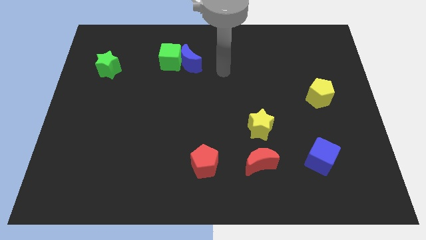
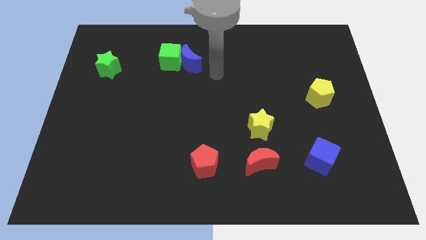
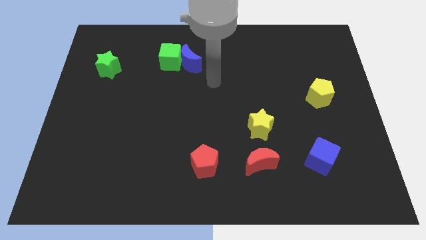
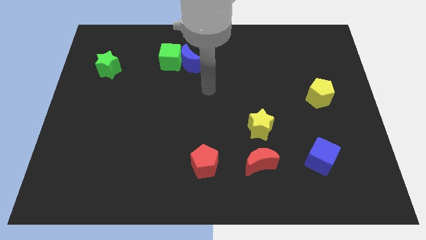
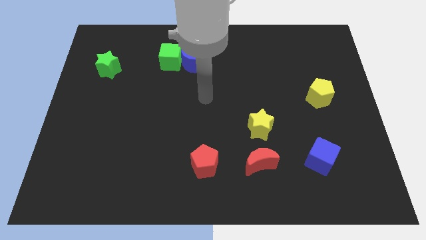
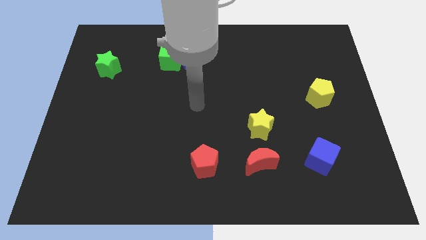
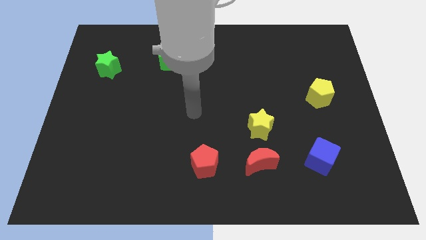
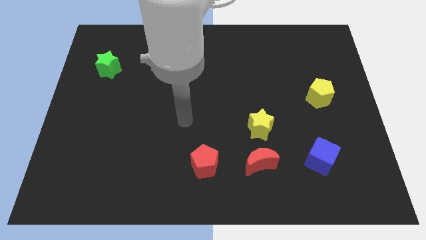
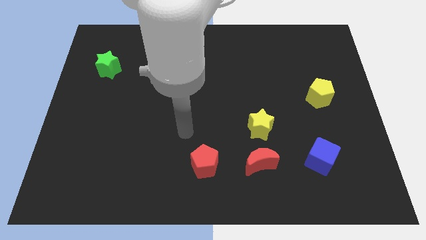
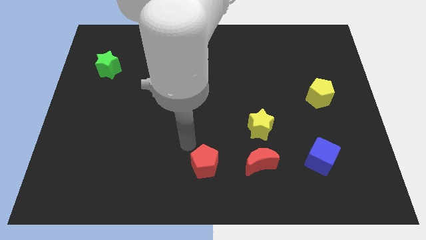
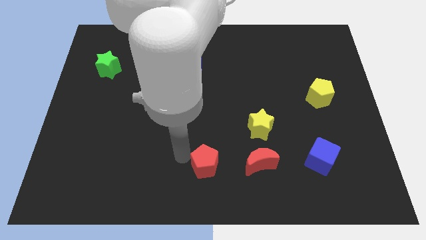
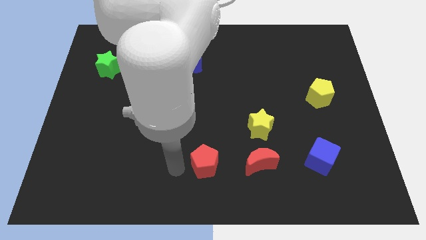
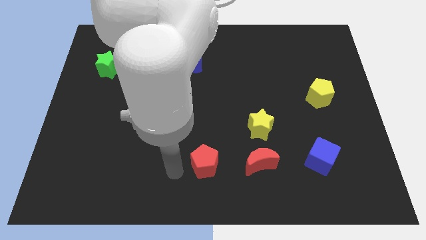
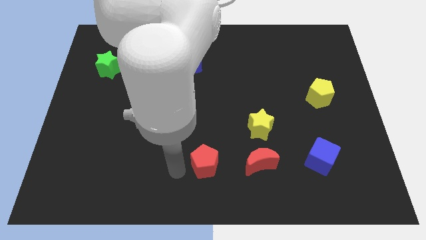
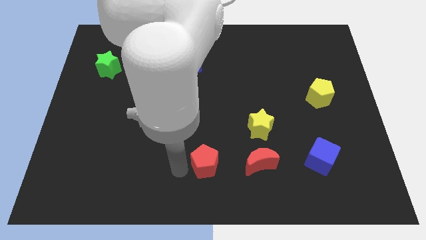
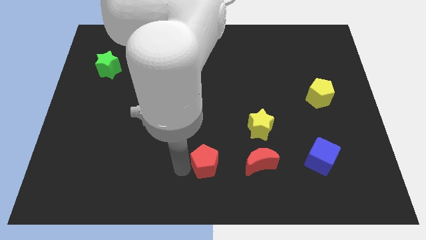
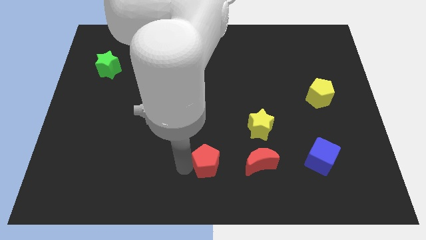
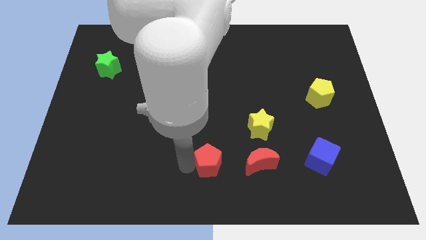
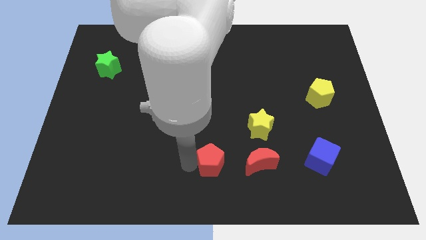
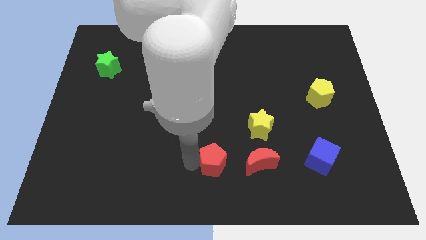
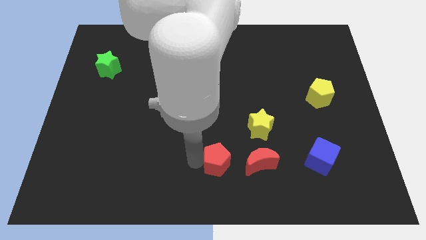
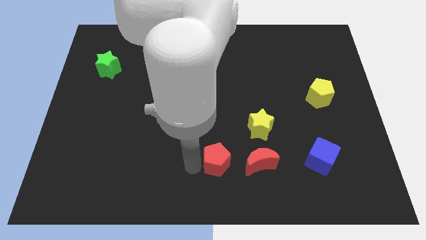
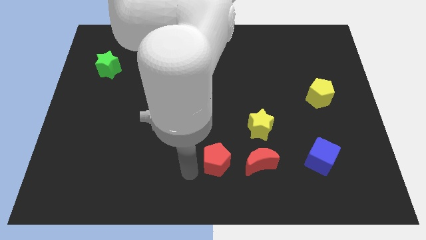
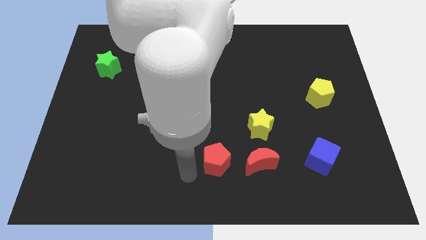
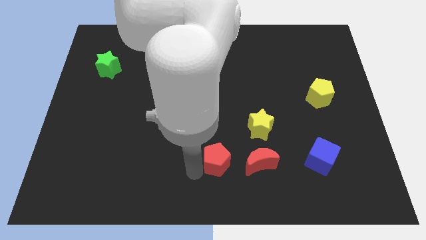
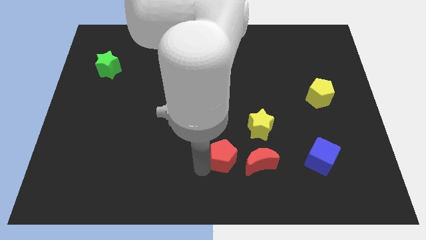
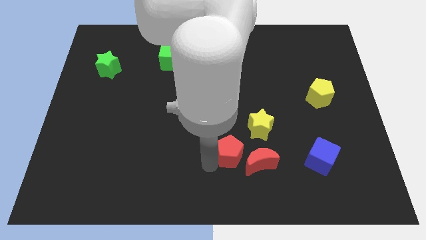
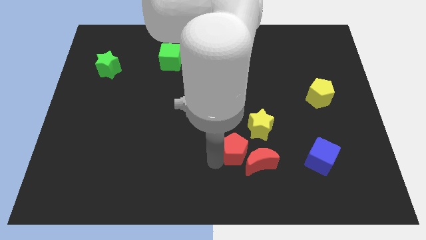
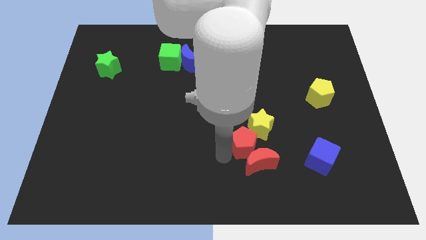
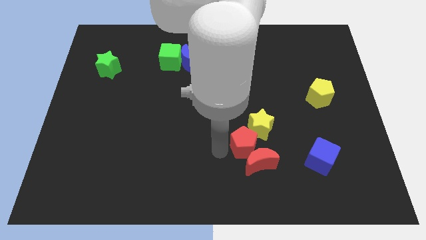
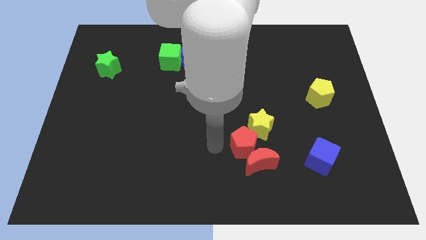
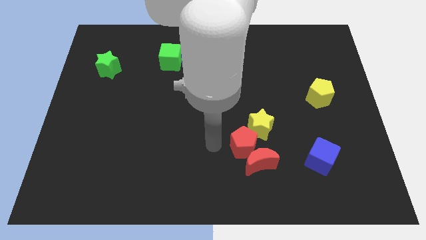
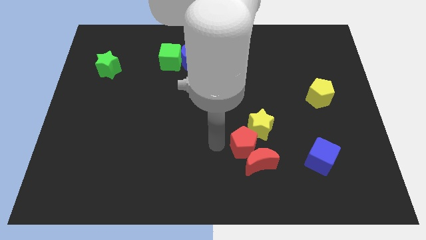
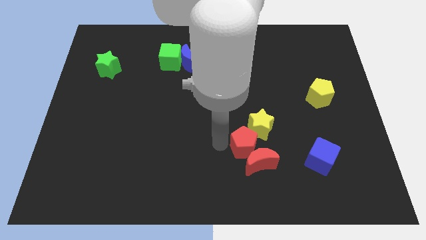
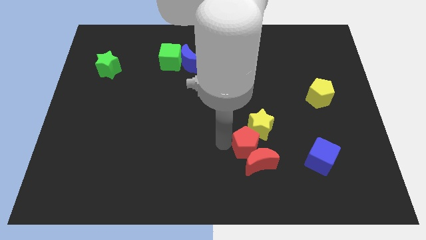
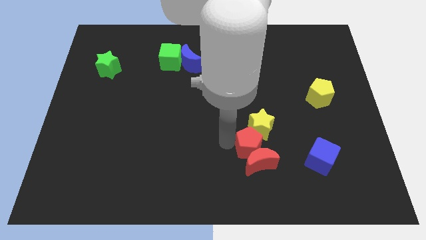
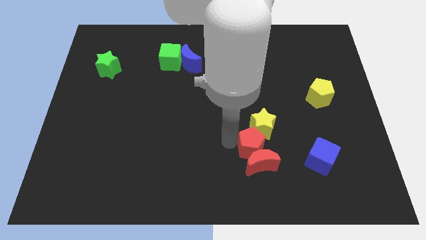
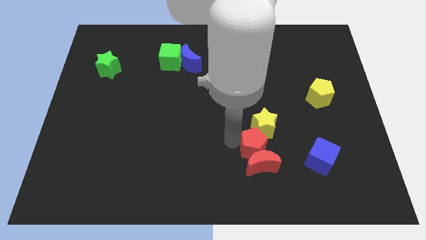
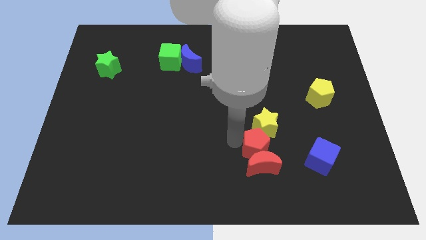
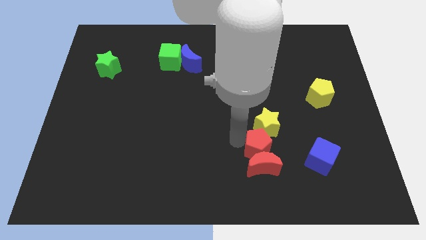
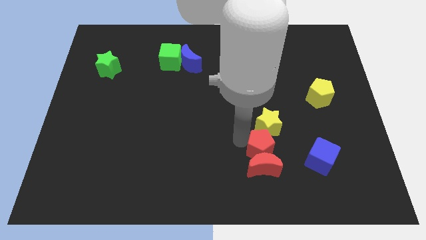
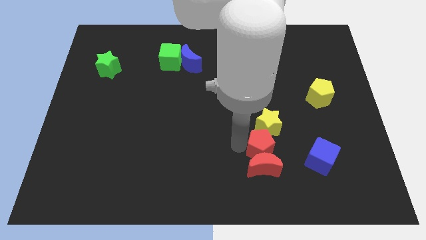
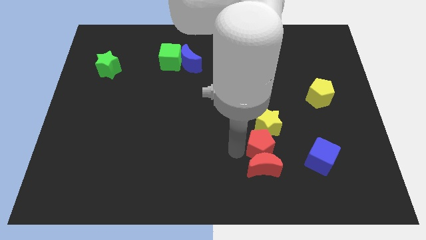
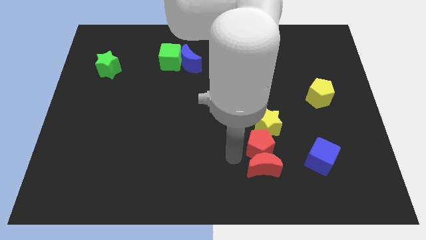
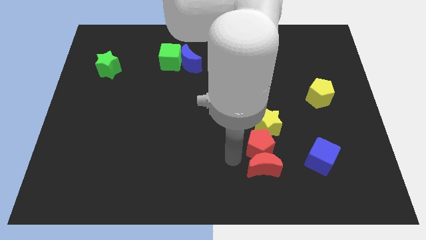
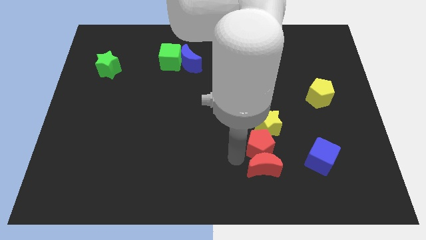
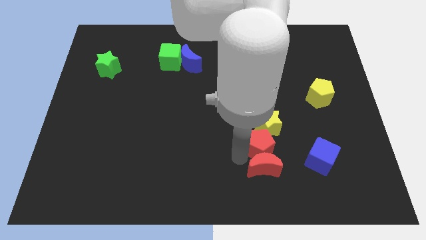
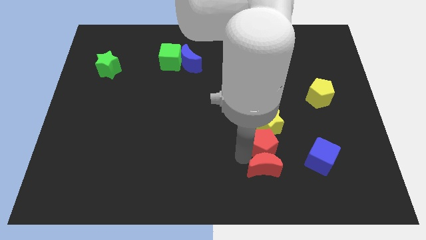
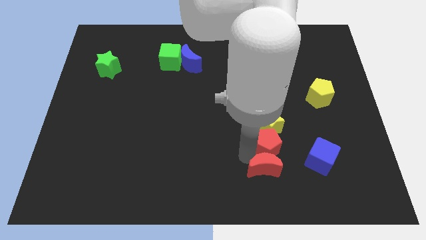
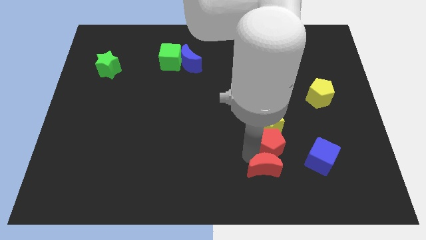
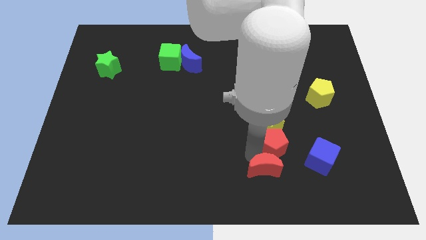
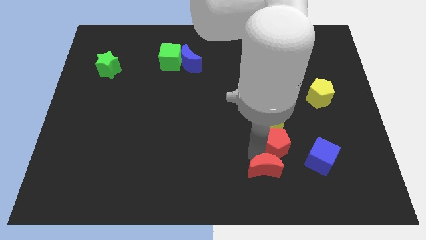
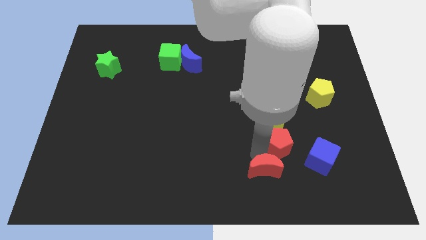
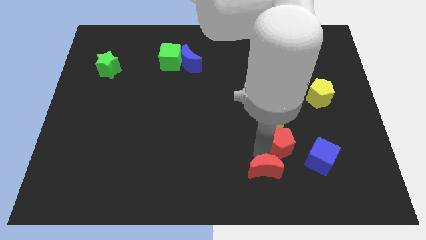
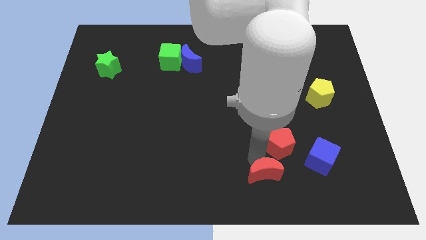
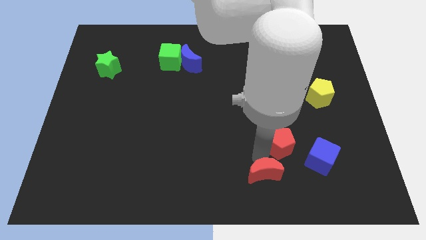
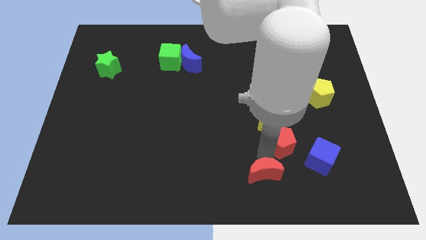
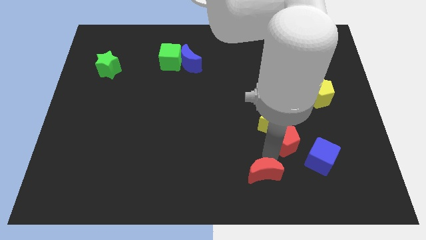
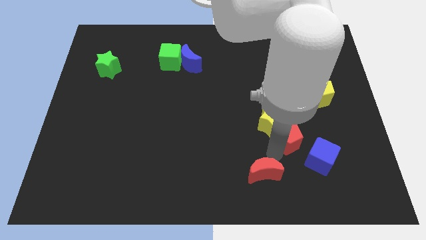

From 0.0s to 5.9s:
put the red pentagon just right of the yellow star

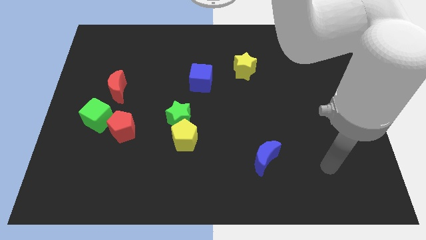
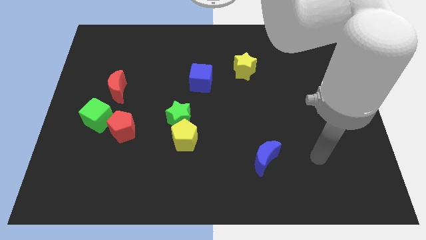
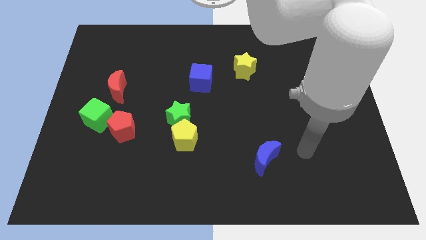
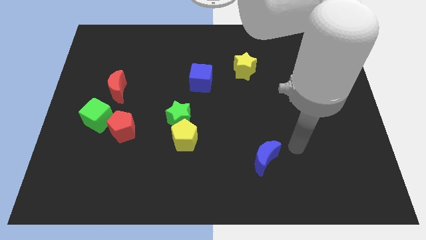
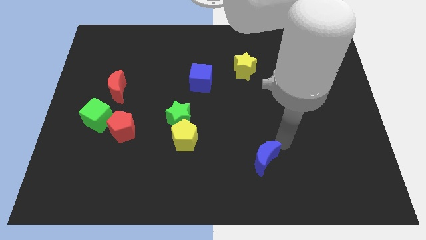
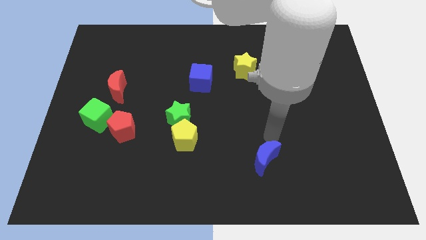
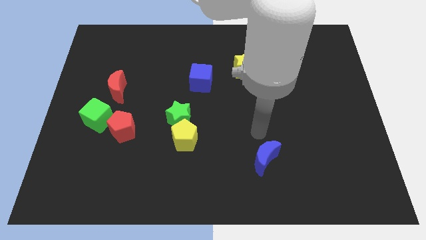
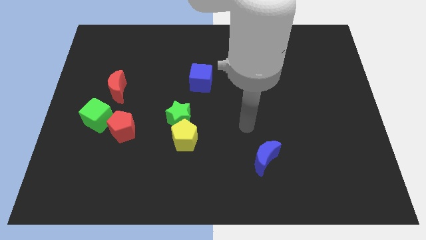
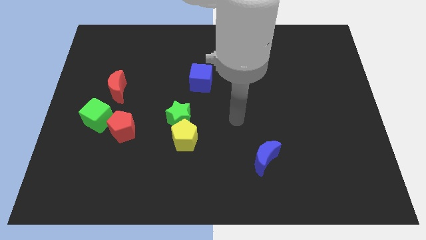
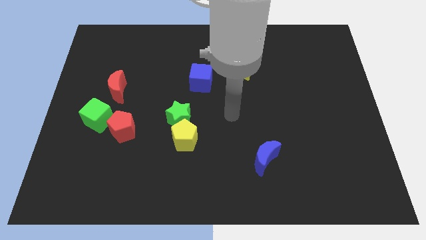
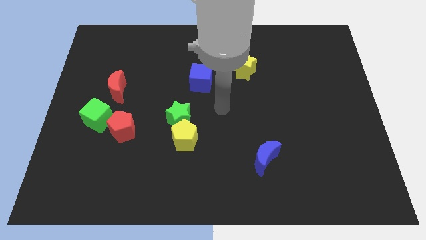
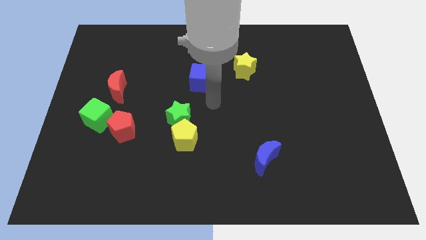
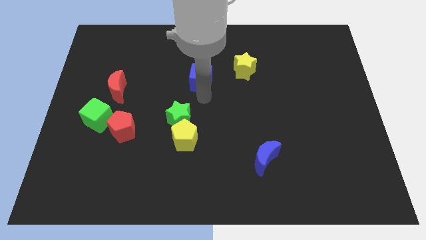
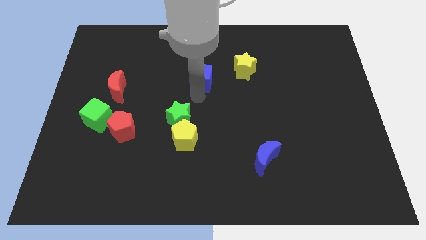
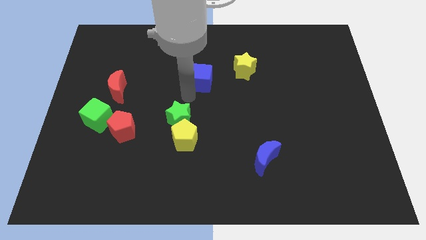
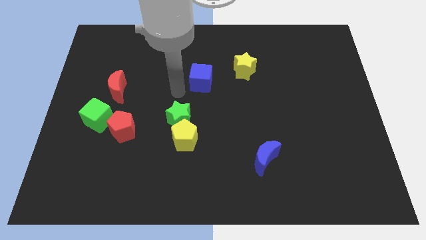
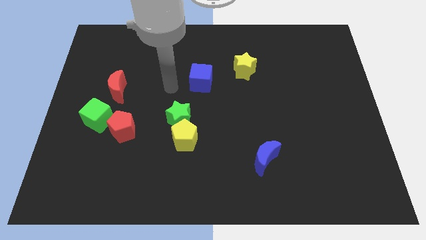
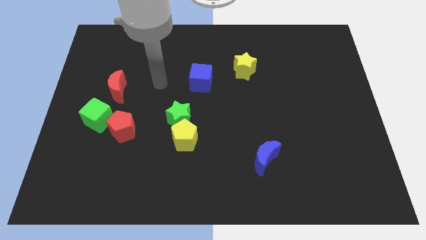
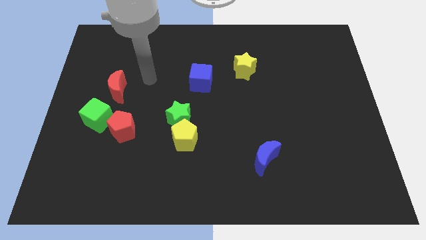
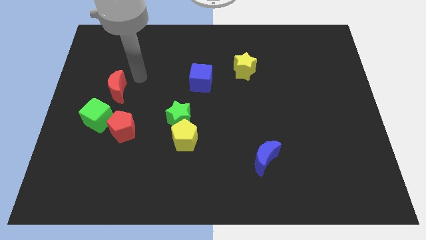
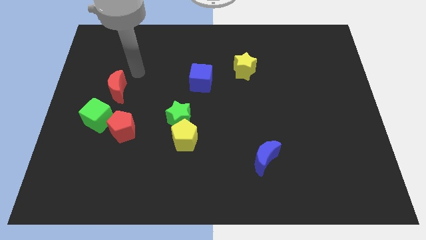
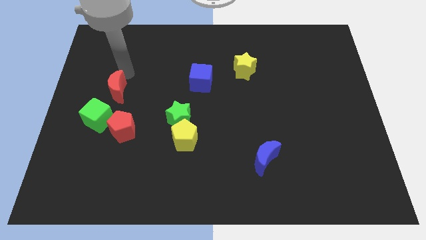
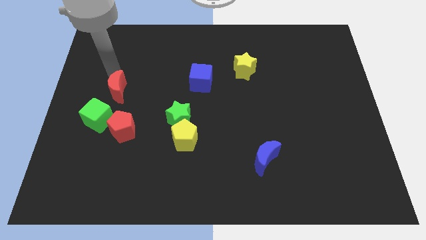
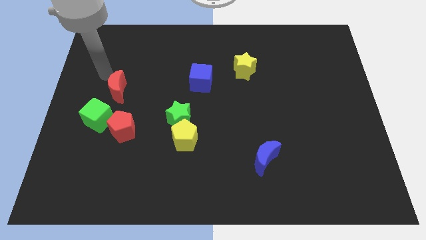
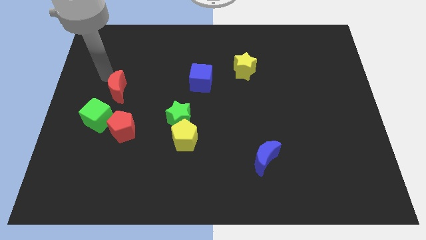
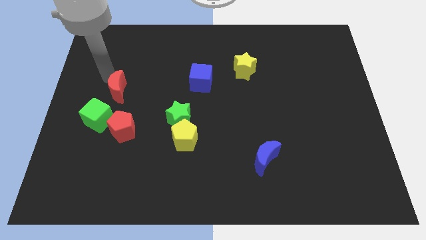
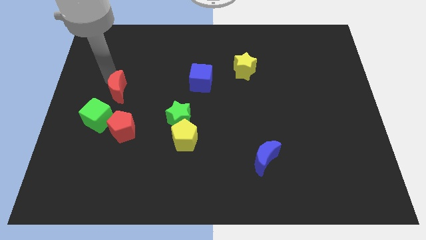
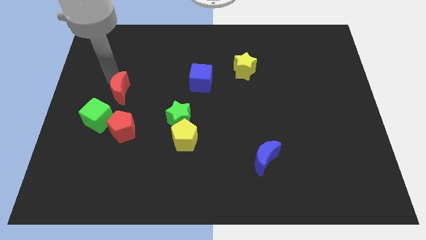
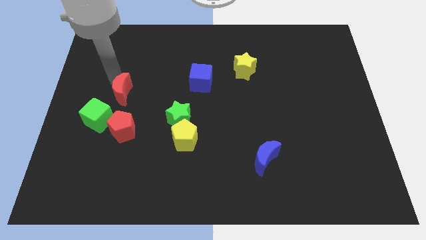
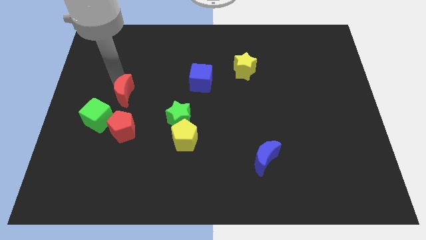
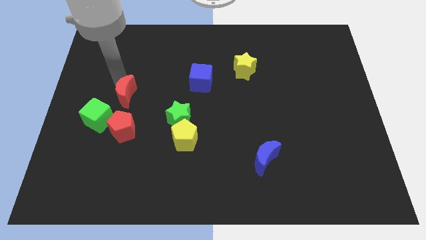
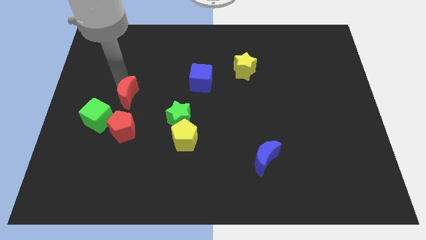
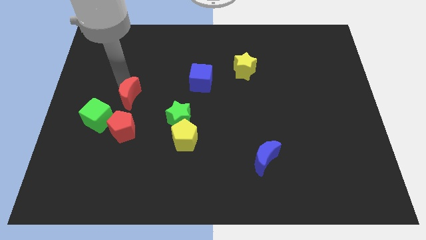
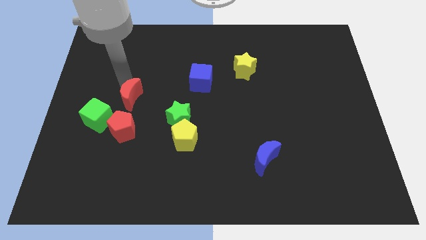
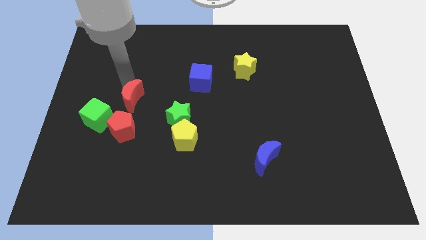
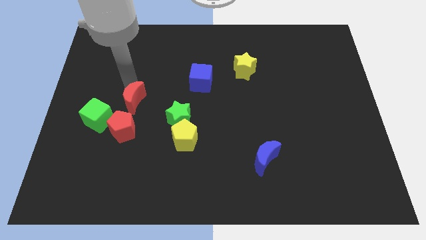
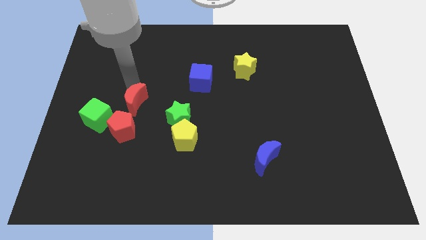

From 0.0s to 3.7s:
move the red moon just right of the green cube
